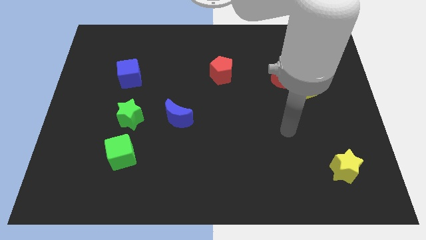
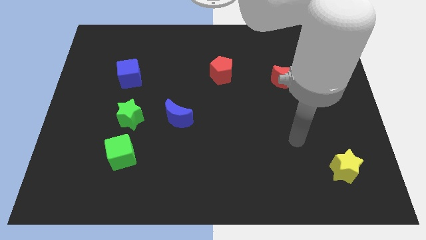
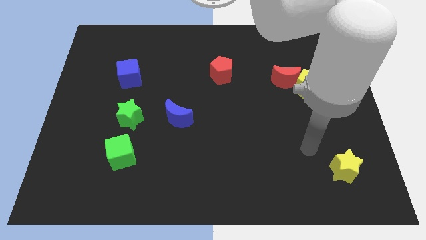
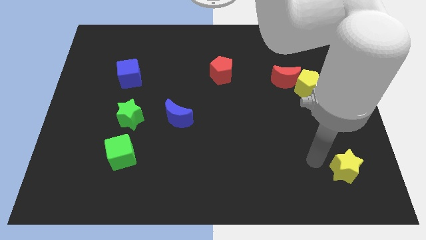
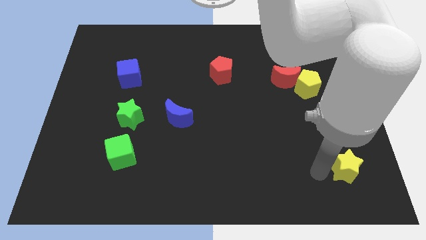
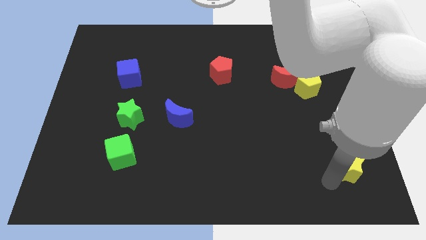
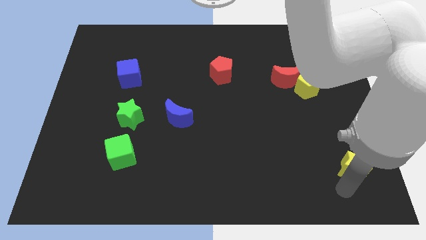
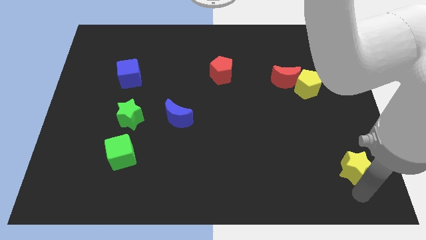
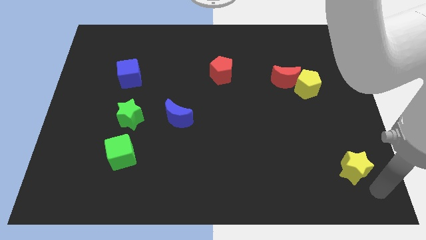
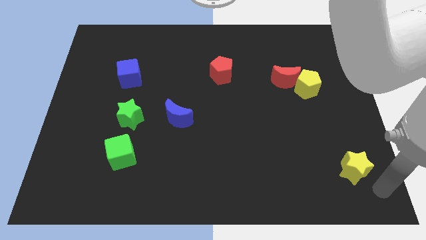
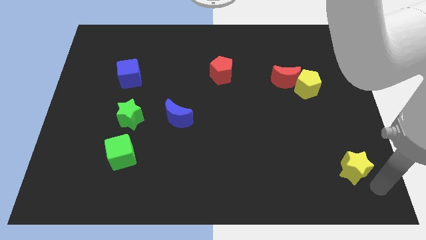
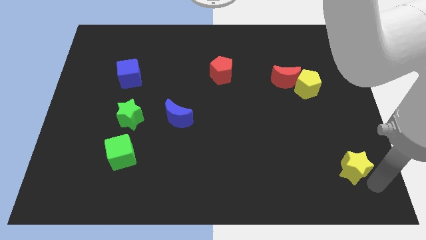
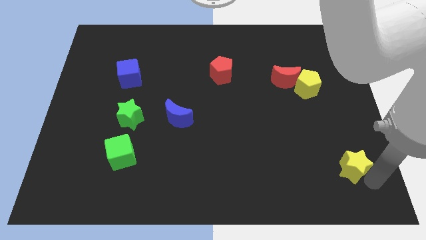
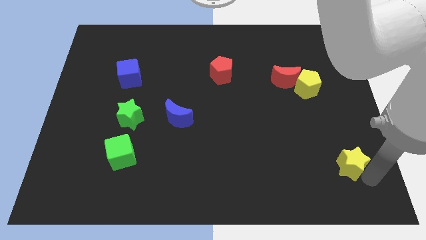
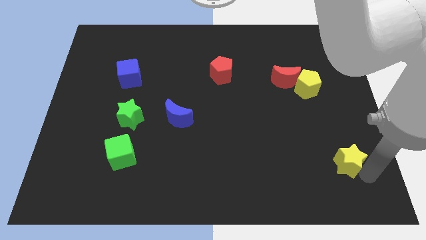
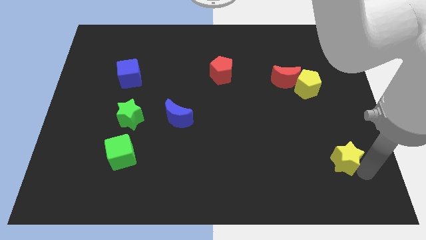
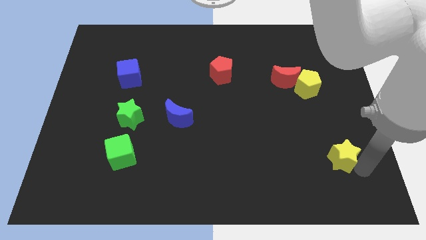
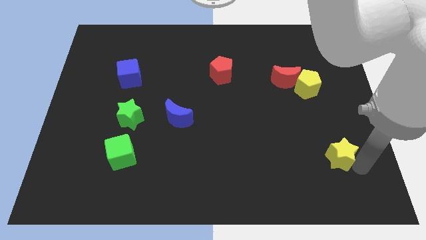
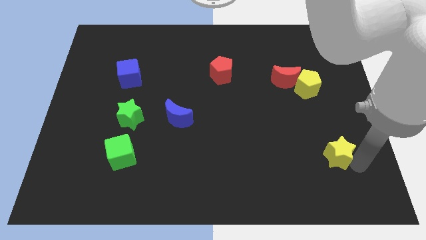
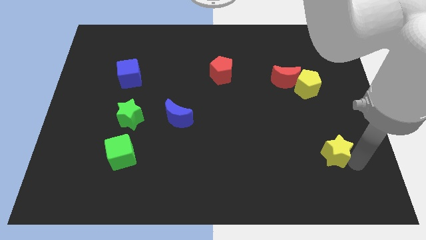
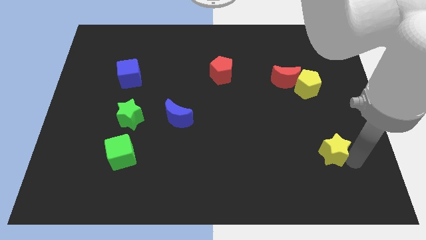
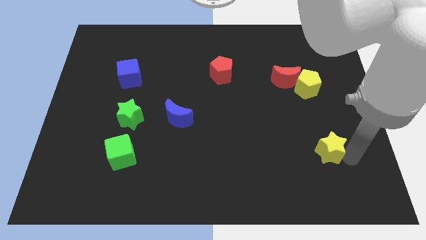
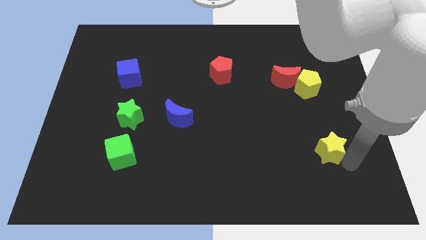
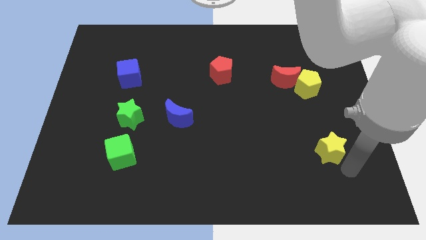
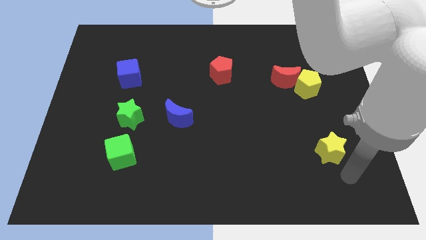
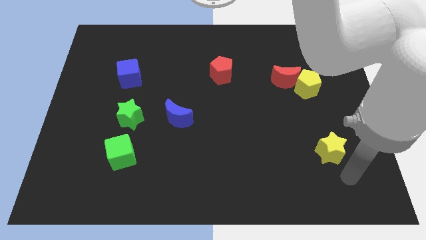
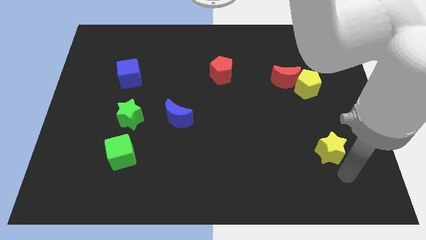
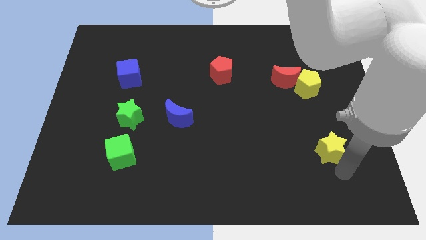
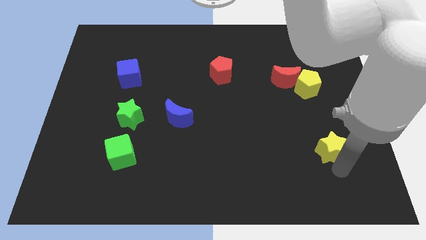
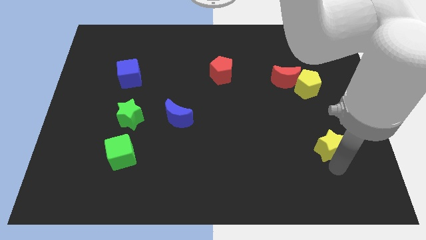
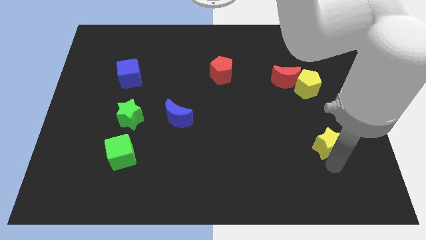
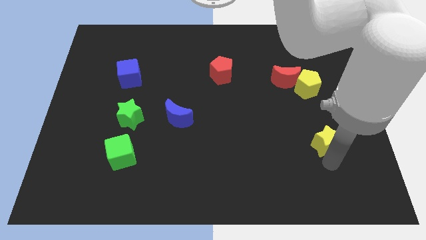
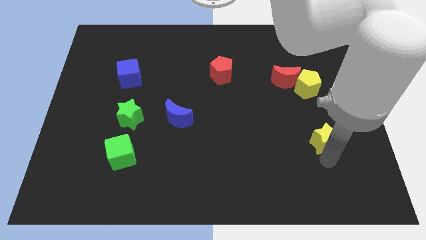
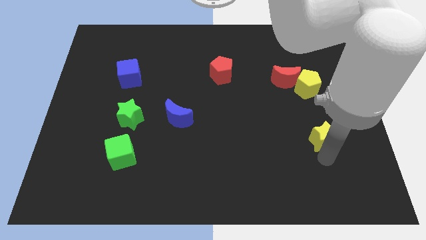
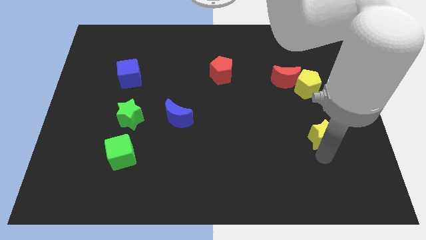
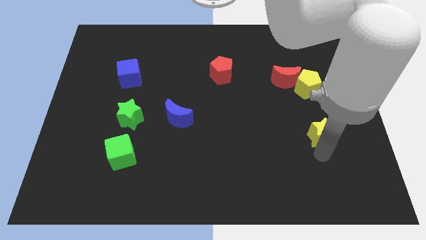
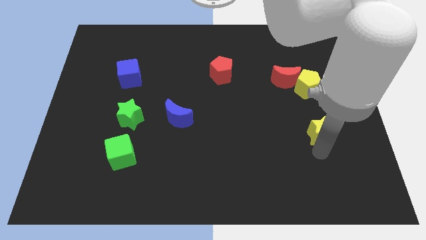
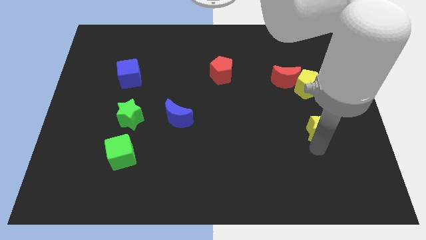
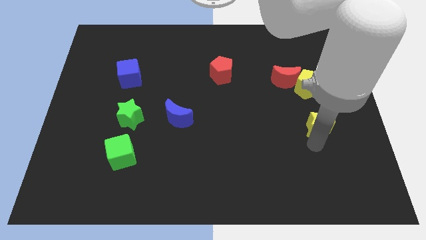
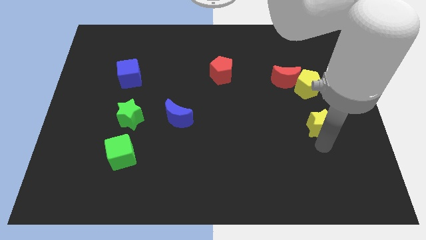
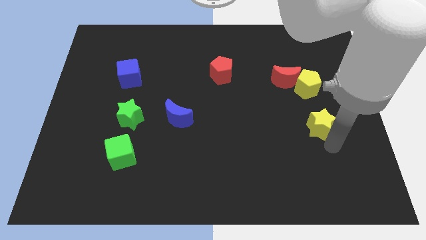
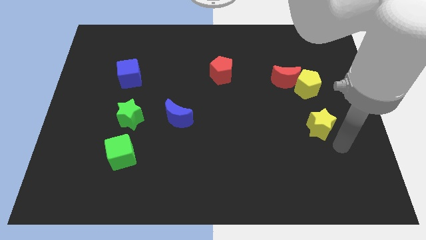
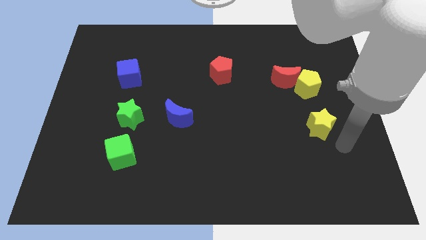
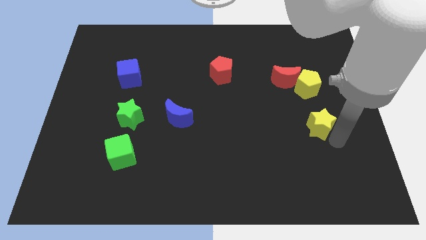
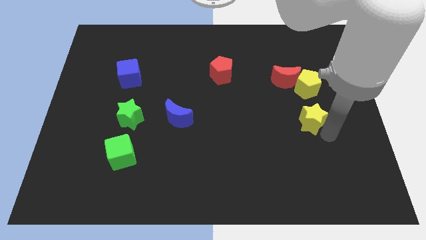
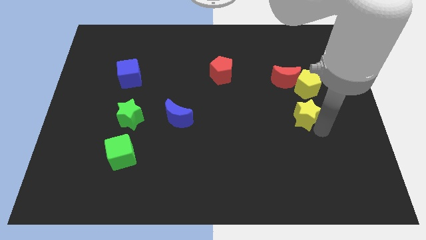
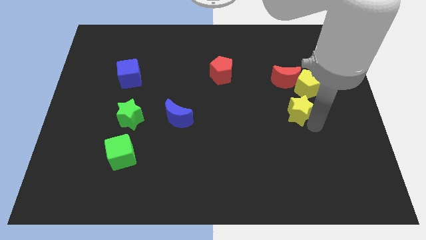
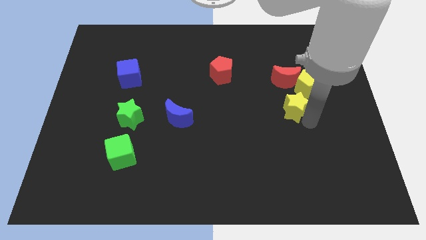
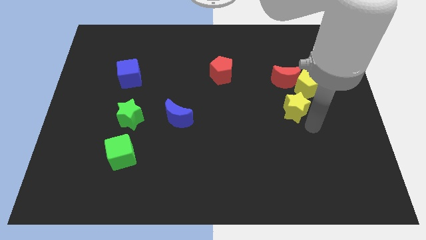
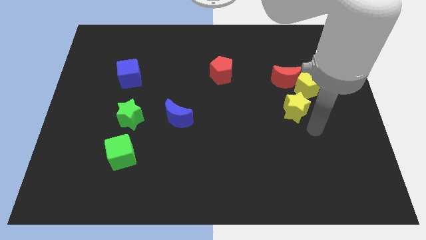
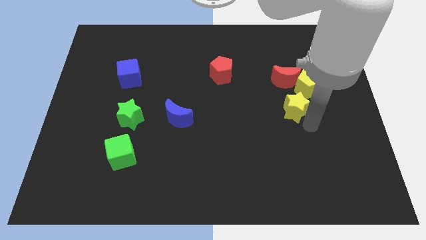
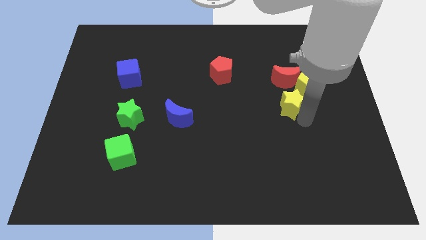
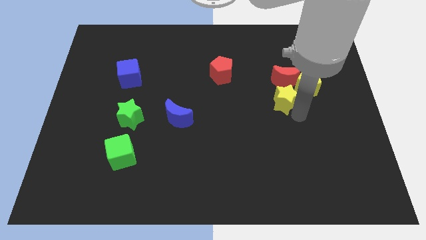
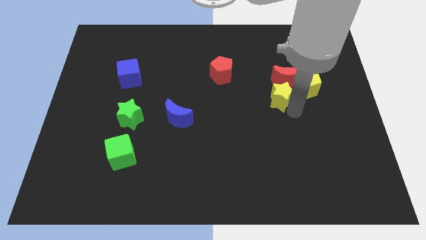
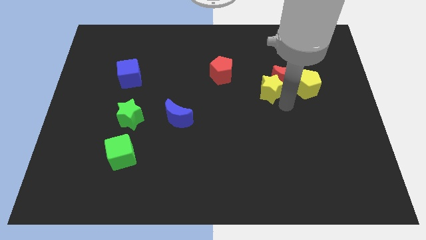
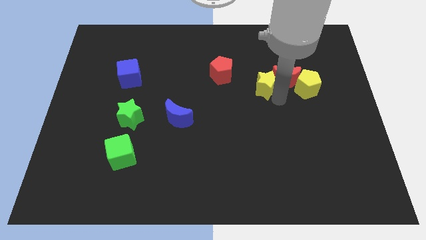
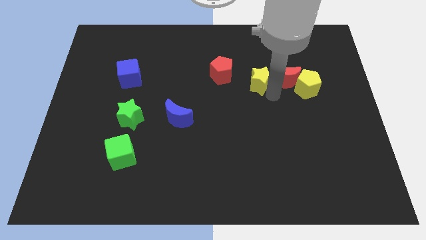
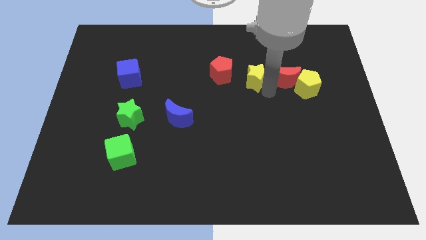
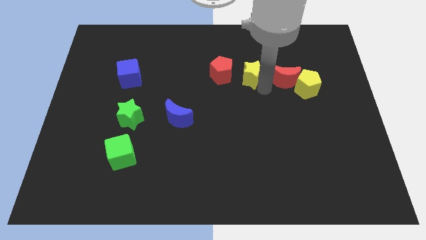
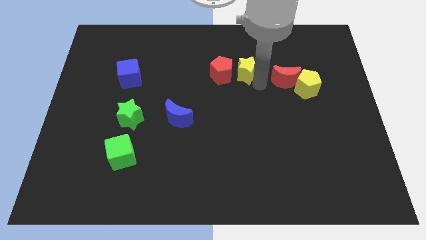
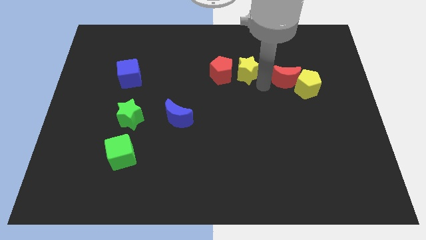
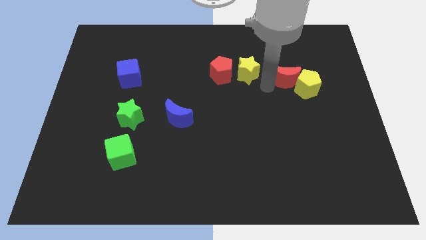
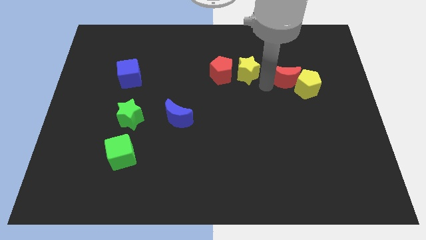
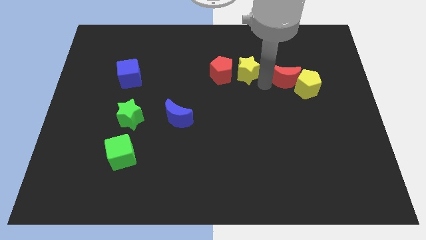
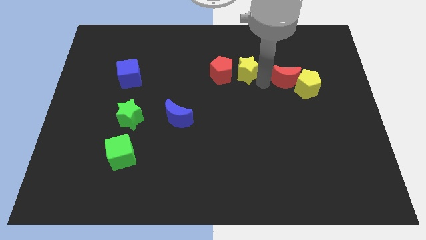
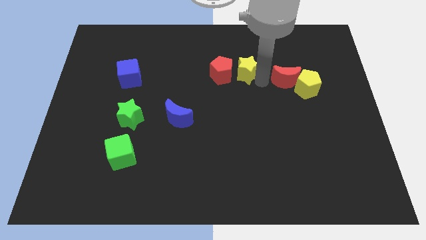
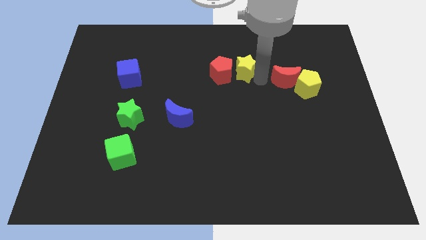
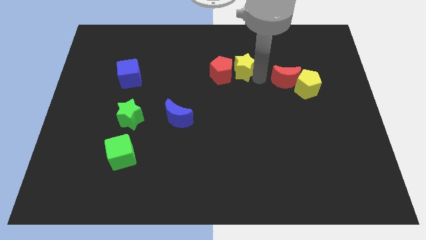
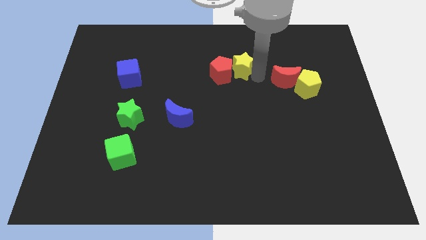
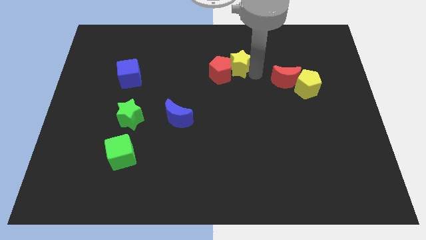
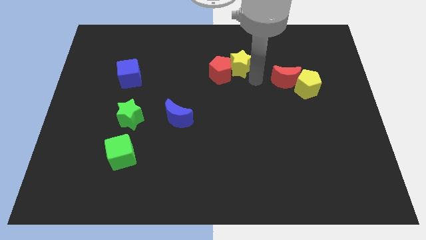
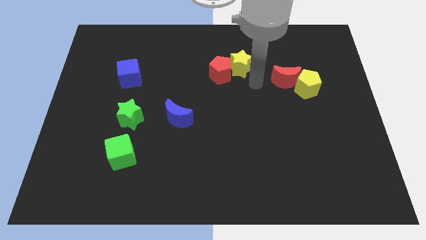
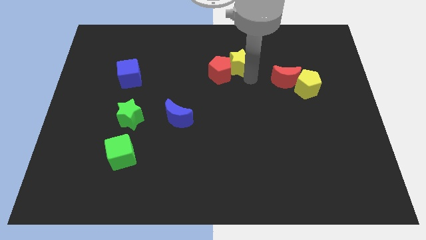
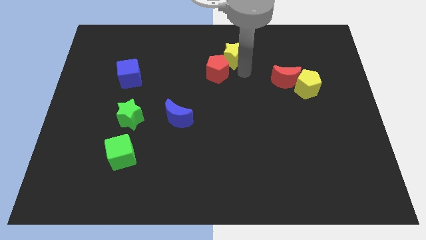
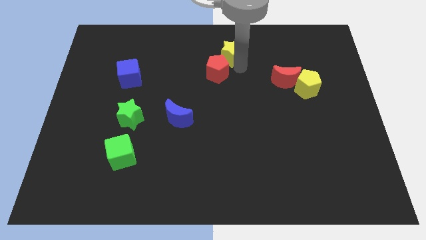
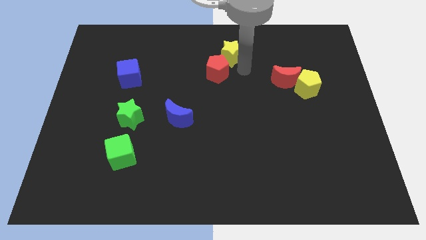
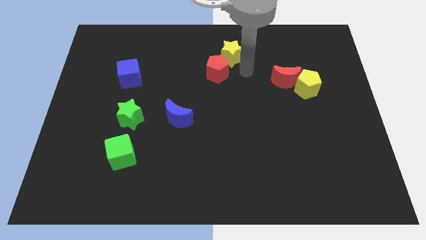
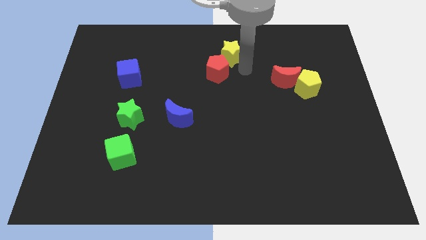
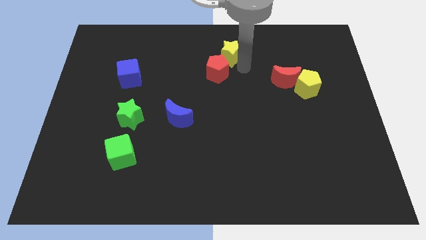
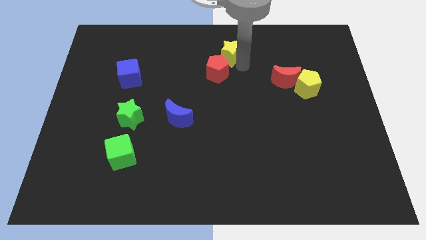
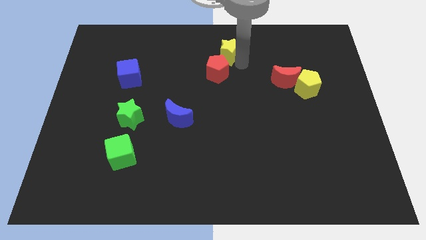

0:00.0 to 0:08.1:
move the yellow star to the top
